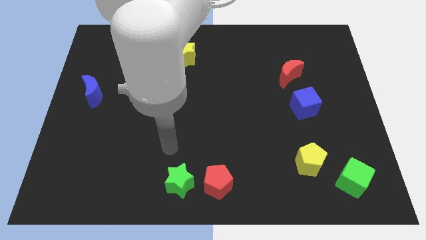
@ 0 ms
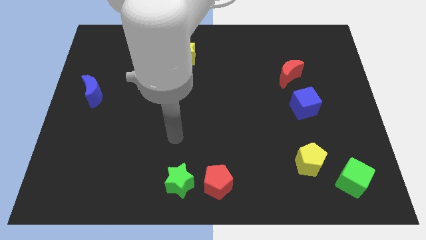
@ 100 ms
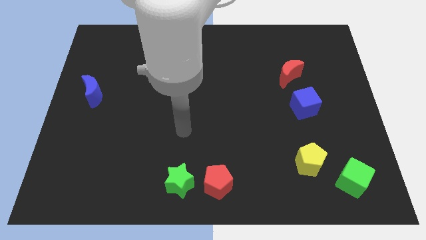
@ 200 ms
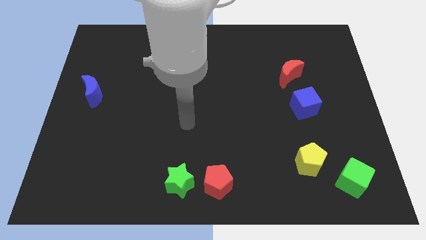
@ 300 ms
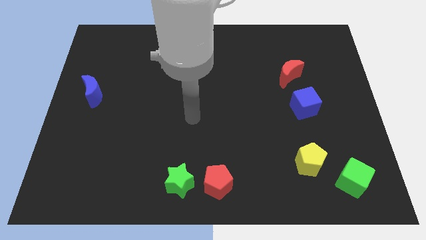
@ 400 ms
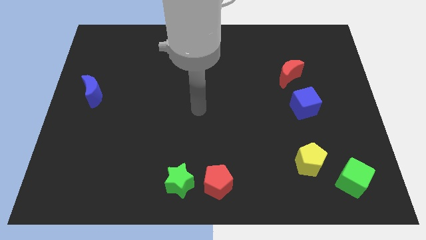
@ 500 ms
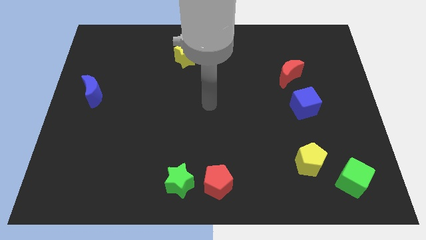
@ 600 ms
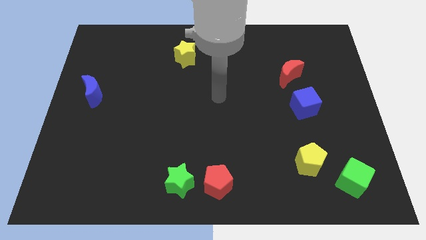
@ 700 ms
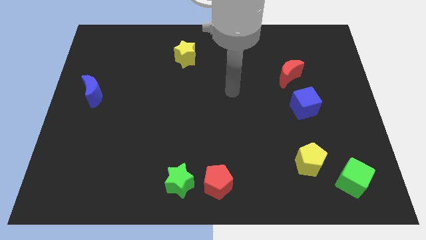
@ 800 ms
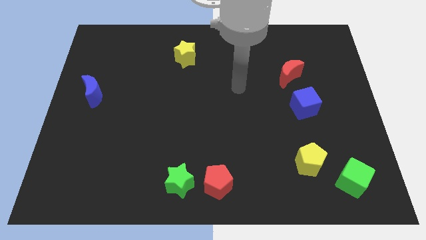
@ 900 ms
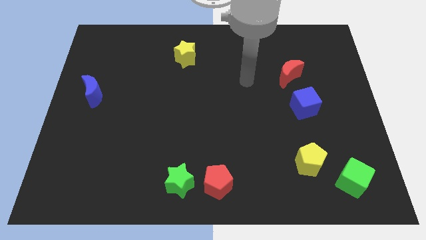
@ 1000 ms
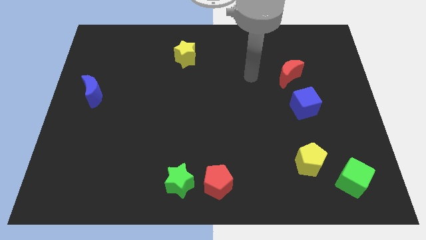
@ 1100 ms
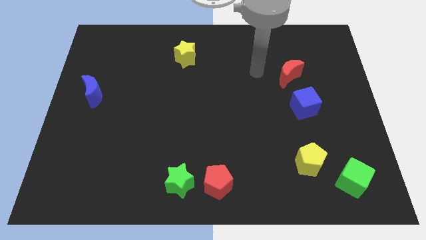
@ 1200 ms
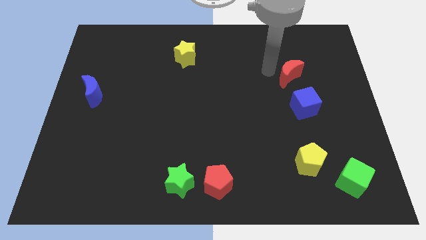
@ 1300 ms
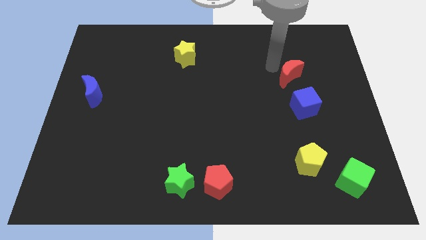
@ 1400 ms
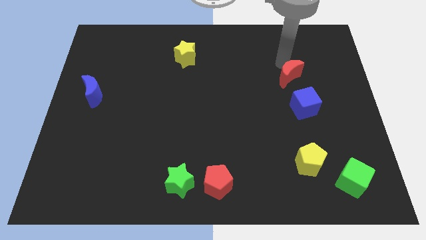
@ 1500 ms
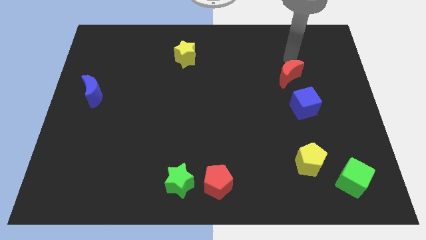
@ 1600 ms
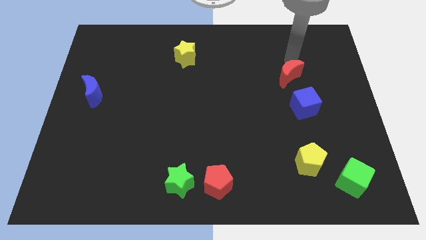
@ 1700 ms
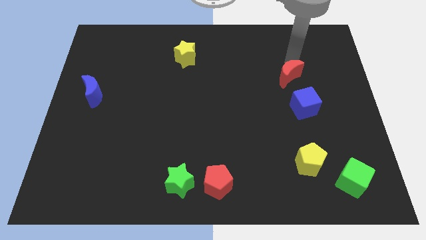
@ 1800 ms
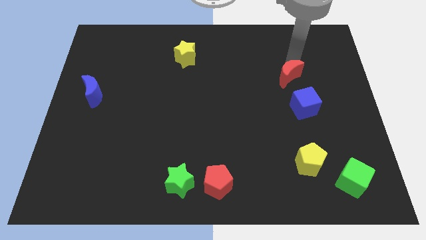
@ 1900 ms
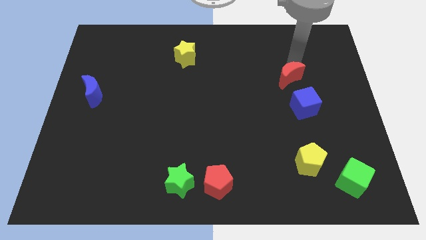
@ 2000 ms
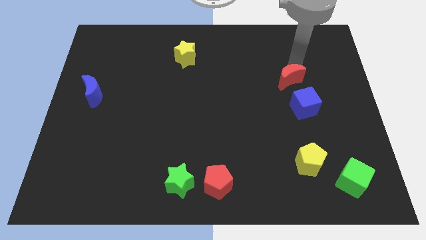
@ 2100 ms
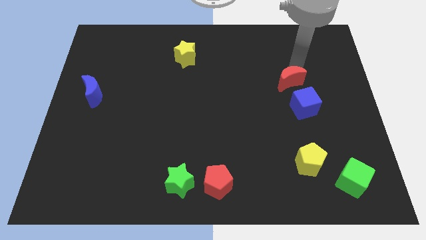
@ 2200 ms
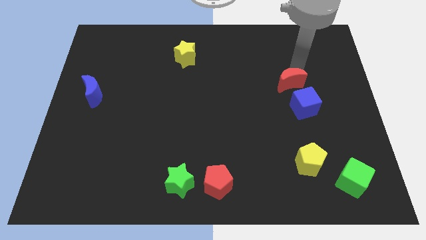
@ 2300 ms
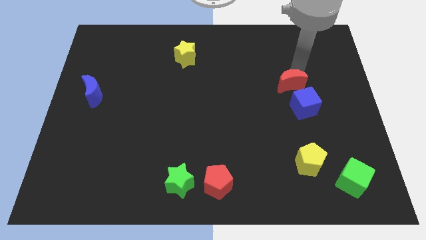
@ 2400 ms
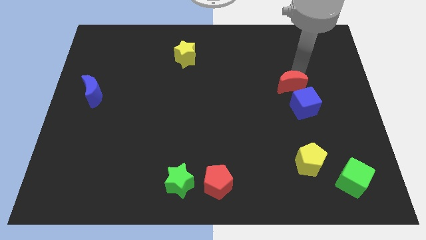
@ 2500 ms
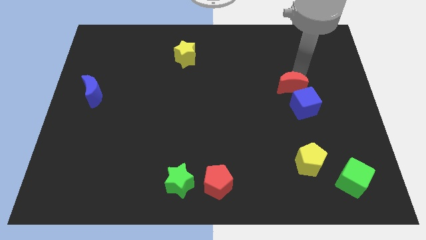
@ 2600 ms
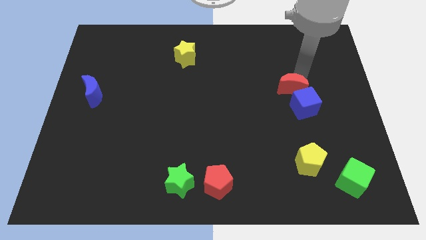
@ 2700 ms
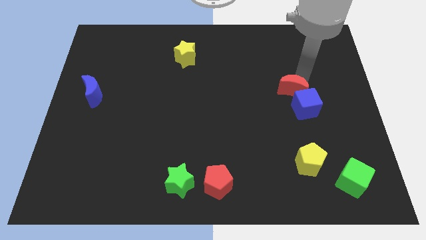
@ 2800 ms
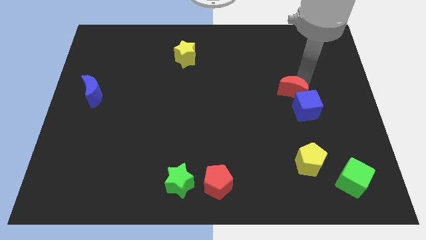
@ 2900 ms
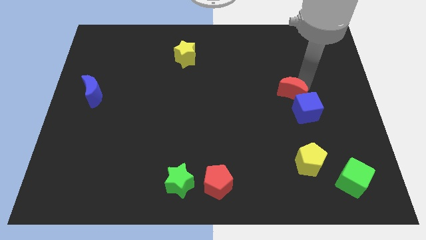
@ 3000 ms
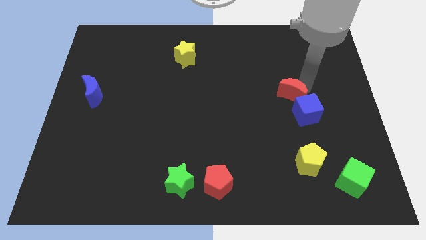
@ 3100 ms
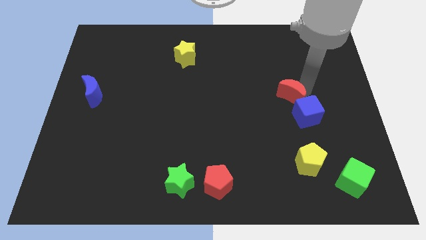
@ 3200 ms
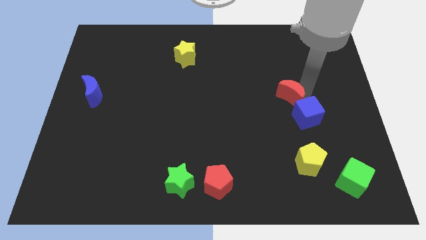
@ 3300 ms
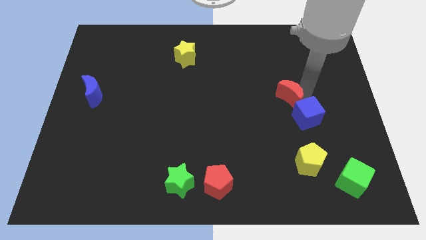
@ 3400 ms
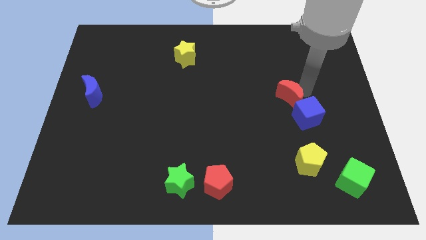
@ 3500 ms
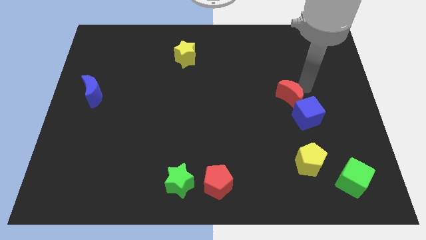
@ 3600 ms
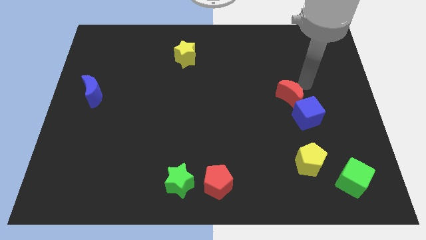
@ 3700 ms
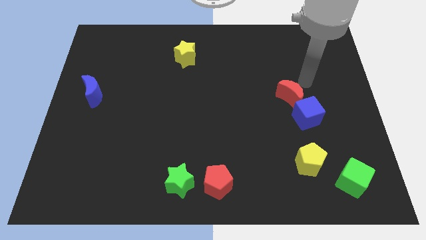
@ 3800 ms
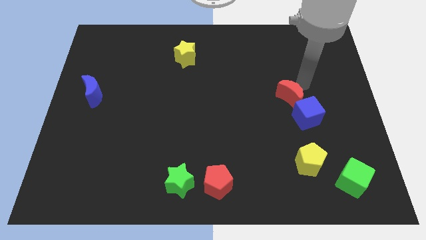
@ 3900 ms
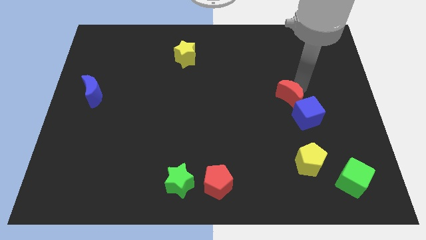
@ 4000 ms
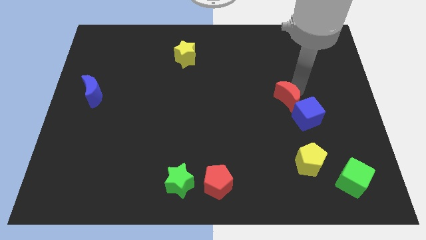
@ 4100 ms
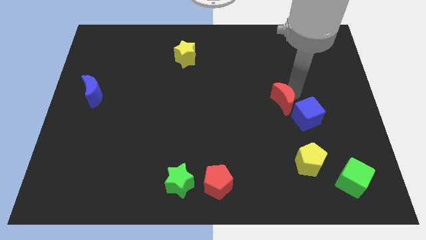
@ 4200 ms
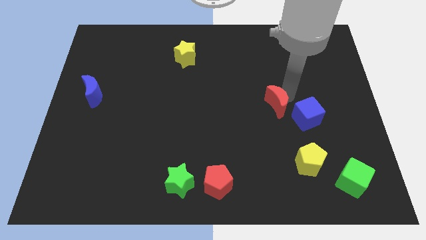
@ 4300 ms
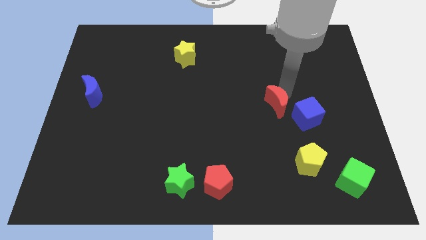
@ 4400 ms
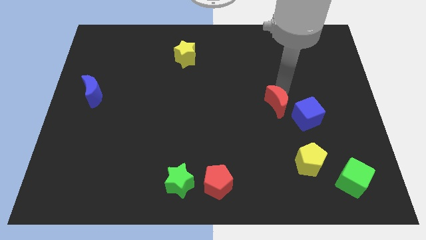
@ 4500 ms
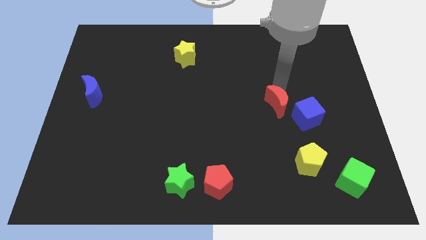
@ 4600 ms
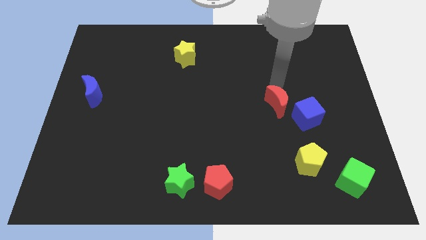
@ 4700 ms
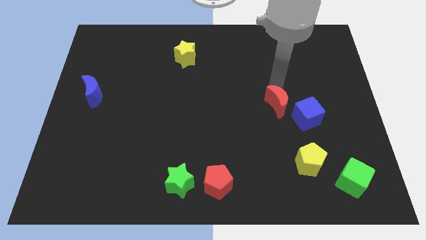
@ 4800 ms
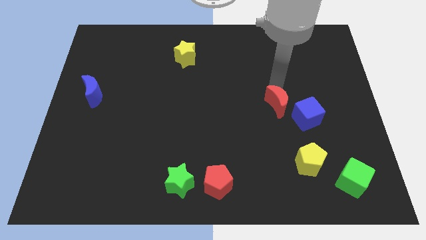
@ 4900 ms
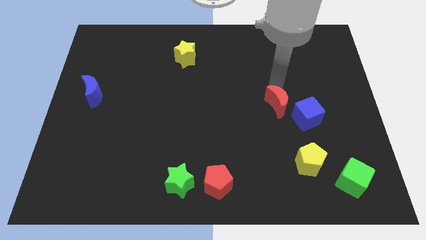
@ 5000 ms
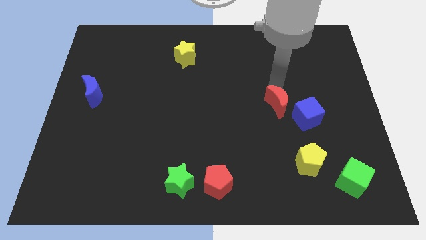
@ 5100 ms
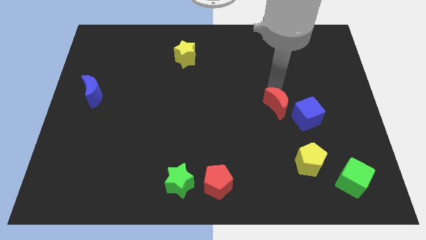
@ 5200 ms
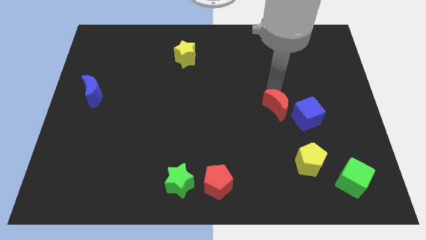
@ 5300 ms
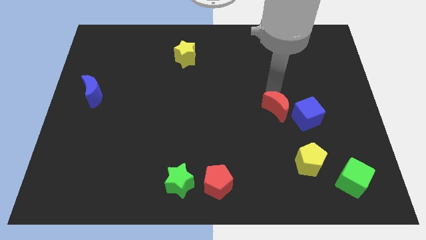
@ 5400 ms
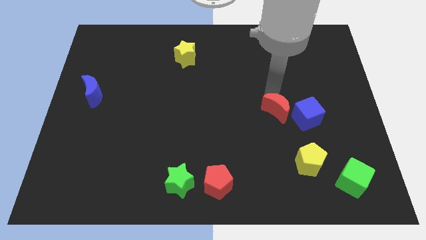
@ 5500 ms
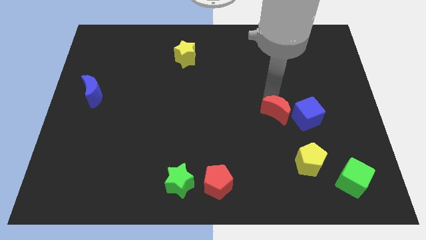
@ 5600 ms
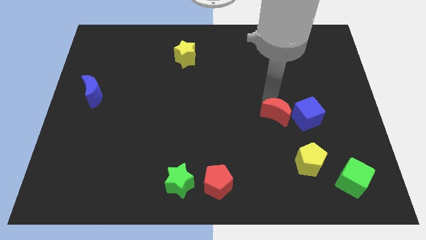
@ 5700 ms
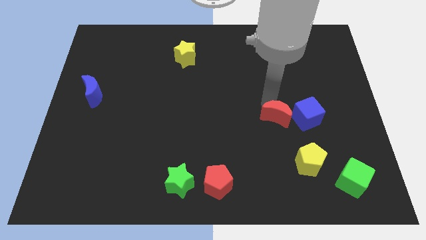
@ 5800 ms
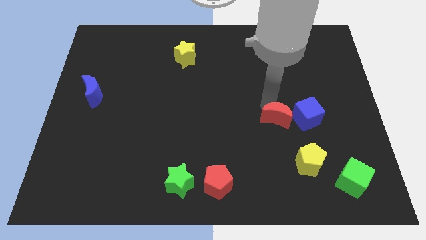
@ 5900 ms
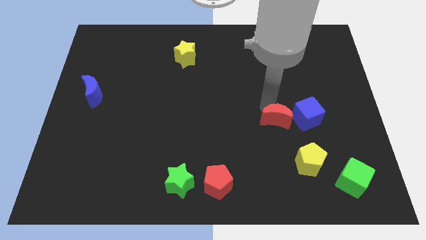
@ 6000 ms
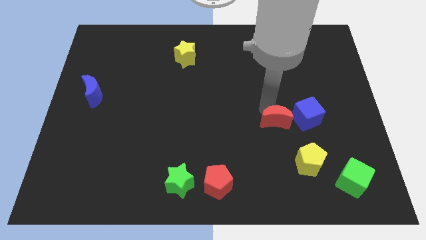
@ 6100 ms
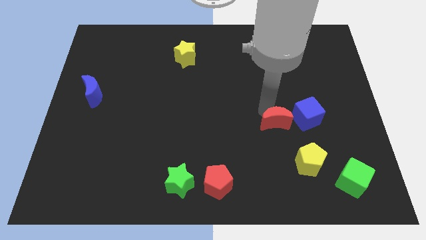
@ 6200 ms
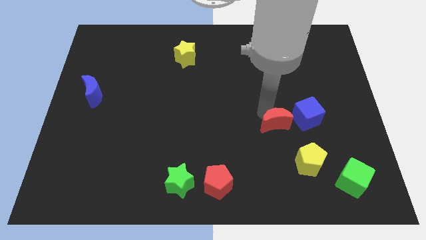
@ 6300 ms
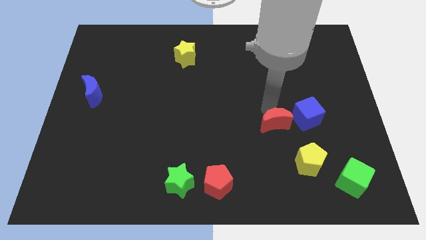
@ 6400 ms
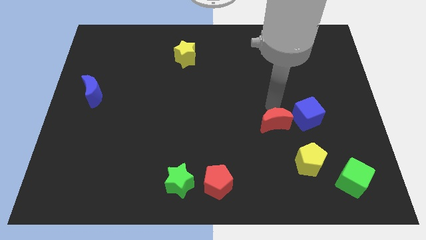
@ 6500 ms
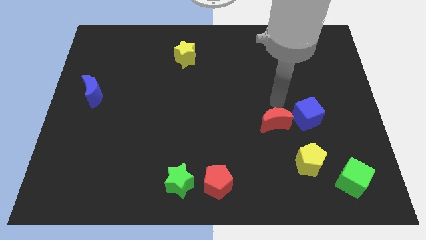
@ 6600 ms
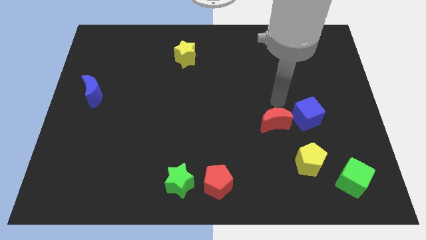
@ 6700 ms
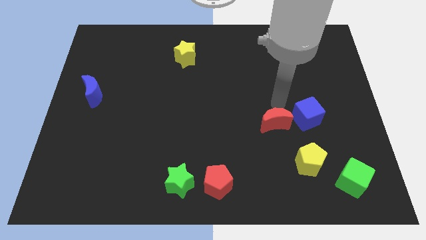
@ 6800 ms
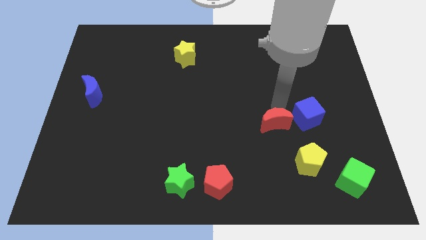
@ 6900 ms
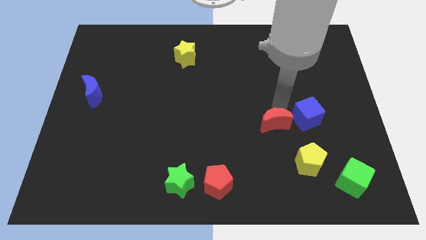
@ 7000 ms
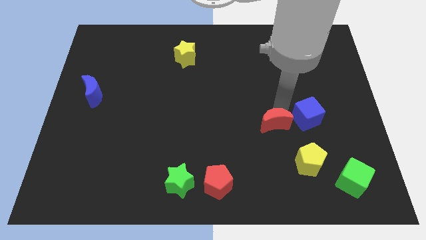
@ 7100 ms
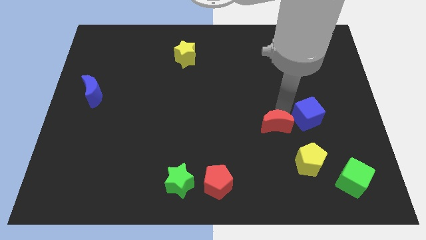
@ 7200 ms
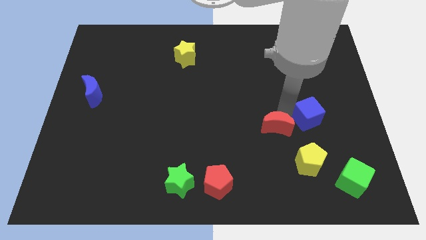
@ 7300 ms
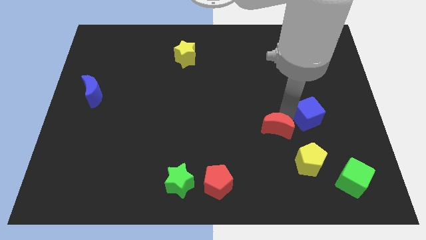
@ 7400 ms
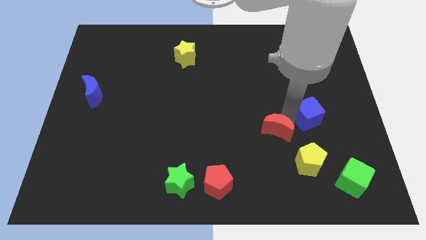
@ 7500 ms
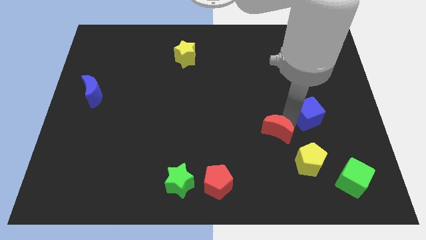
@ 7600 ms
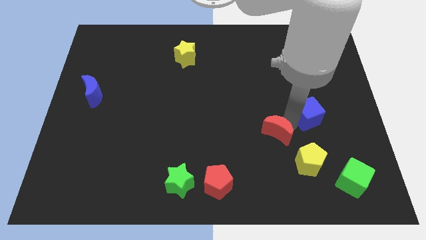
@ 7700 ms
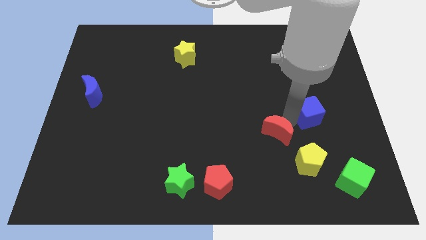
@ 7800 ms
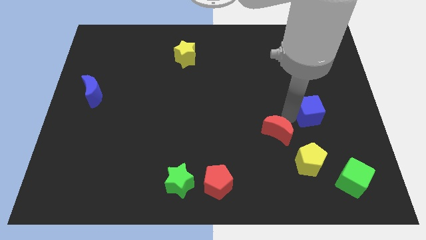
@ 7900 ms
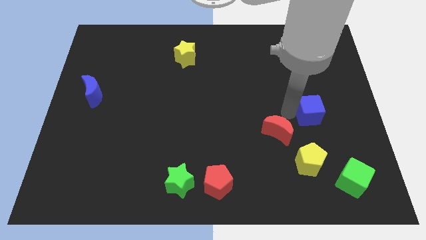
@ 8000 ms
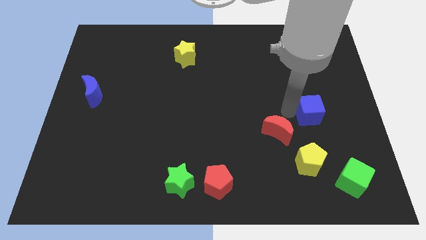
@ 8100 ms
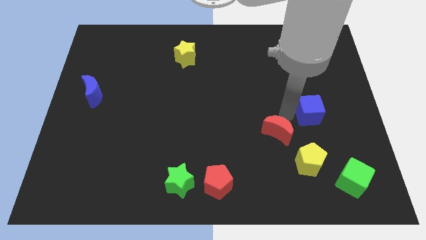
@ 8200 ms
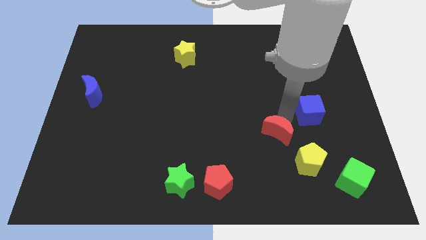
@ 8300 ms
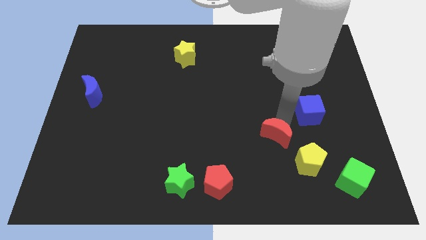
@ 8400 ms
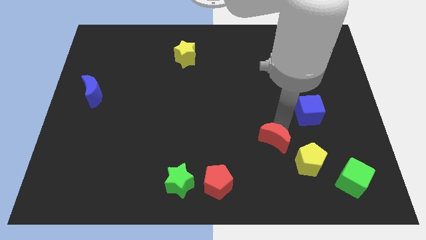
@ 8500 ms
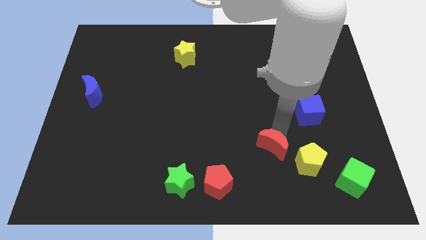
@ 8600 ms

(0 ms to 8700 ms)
push the red moon to the left side of the yellow pentagon

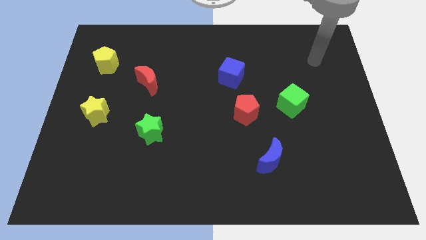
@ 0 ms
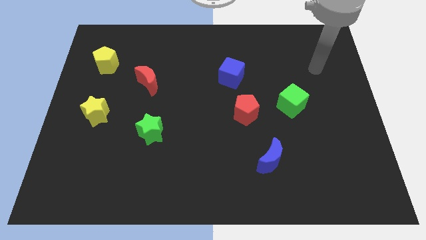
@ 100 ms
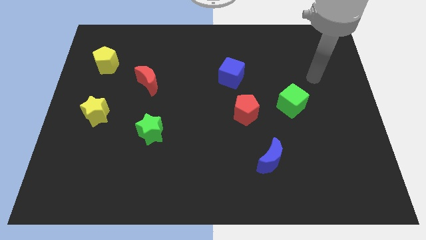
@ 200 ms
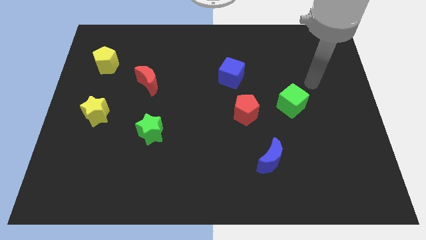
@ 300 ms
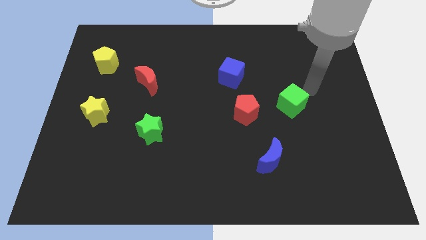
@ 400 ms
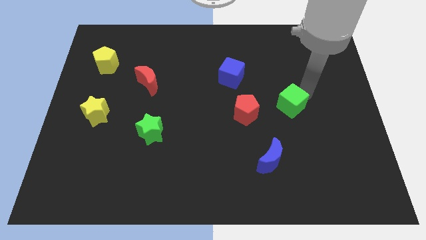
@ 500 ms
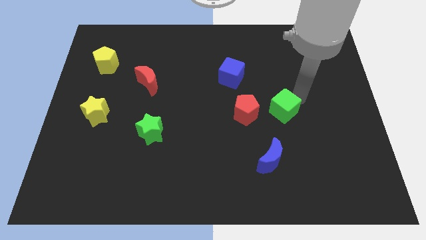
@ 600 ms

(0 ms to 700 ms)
push the green cube above the blue moon
